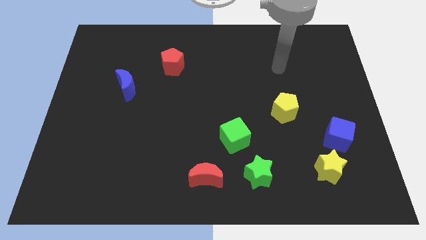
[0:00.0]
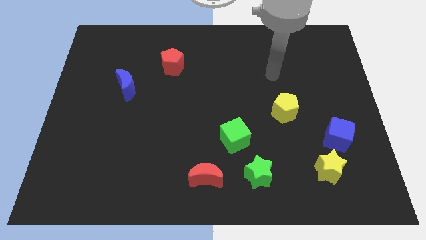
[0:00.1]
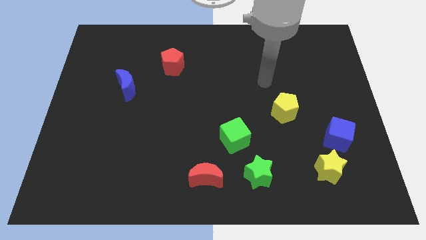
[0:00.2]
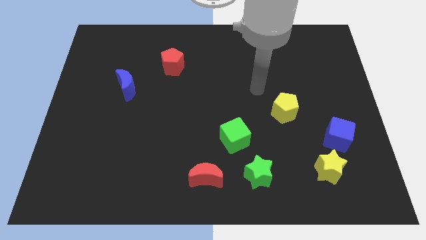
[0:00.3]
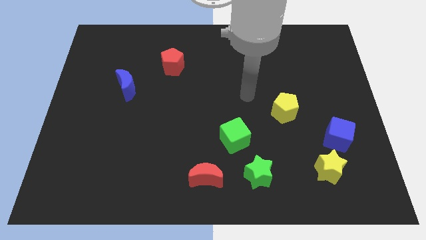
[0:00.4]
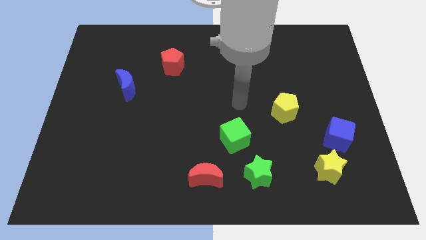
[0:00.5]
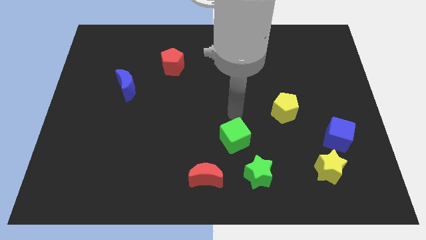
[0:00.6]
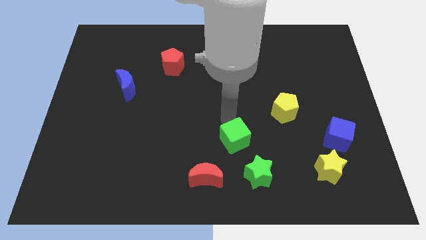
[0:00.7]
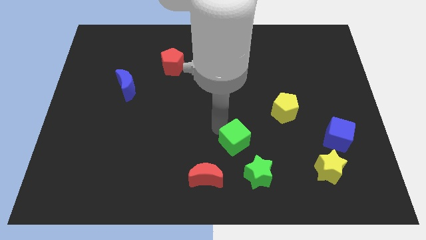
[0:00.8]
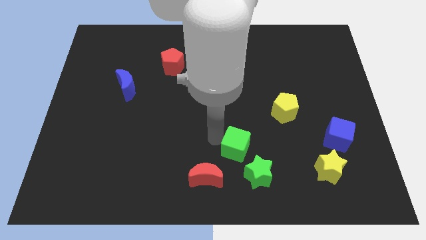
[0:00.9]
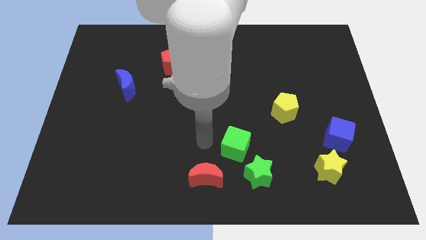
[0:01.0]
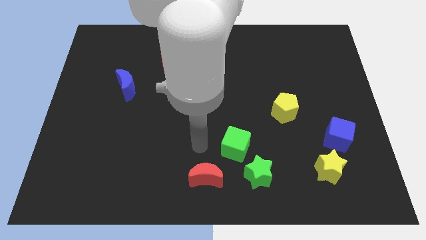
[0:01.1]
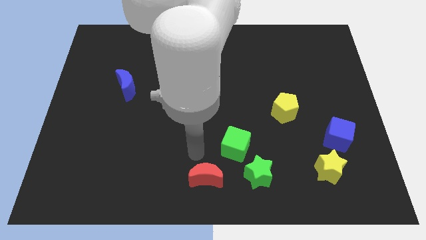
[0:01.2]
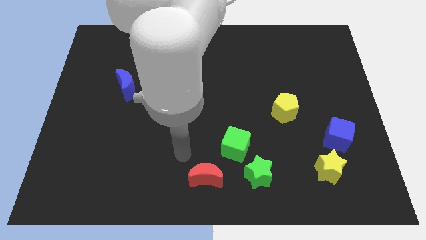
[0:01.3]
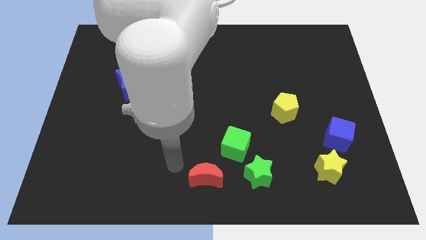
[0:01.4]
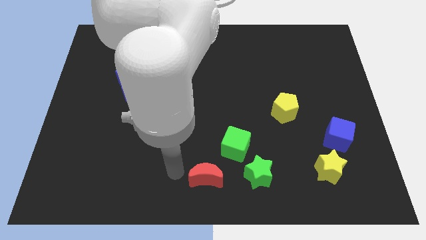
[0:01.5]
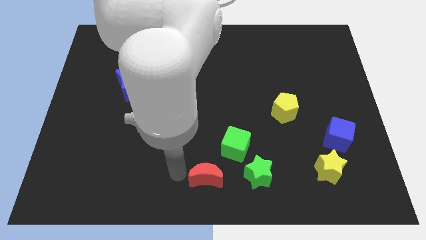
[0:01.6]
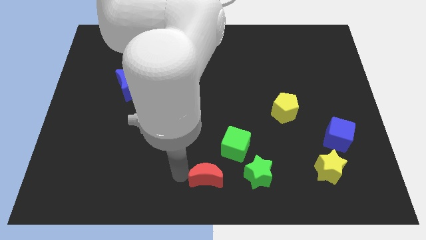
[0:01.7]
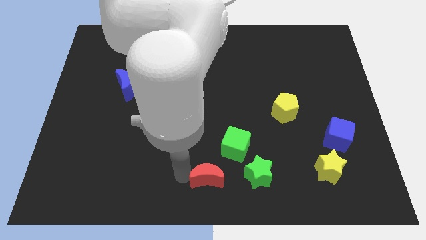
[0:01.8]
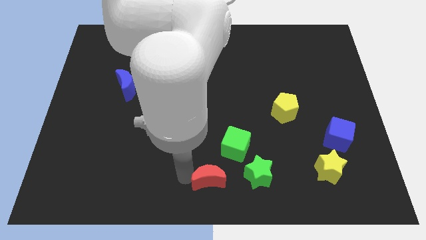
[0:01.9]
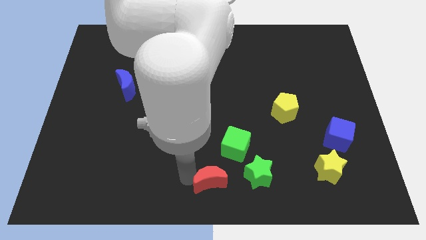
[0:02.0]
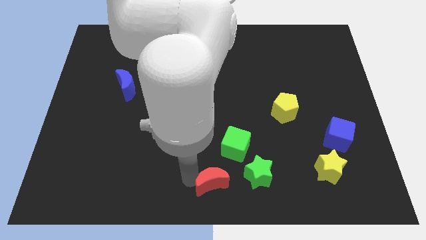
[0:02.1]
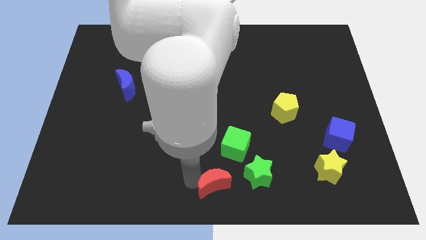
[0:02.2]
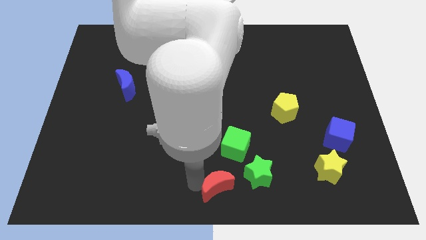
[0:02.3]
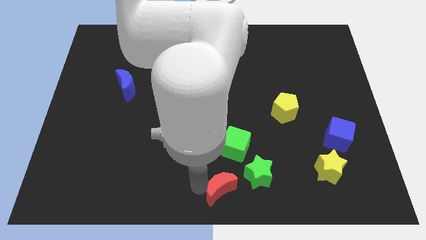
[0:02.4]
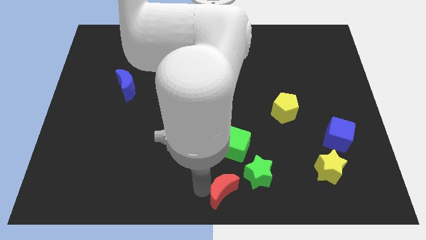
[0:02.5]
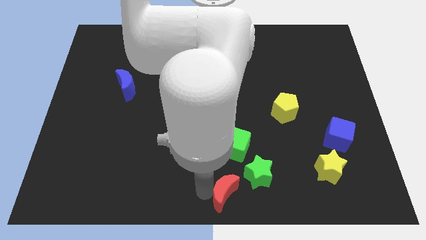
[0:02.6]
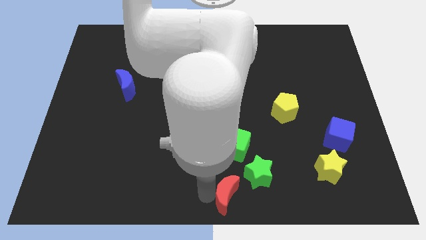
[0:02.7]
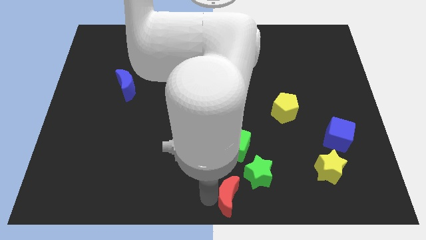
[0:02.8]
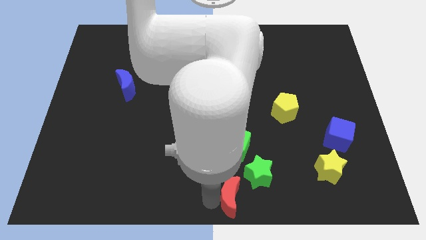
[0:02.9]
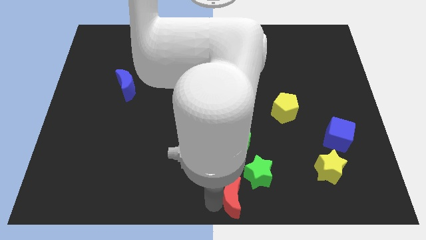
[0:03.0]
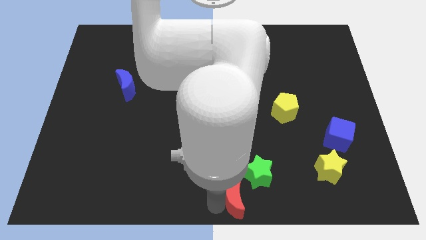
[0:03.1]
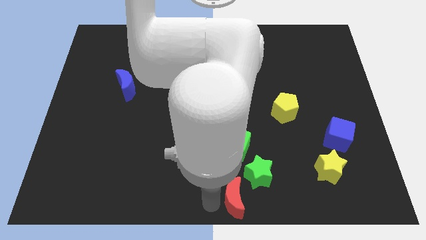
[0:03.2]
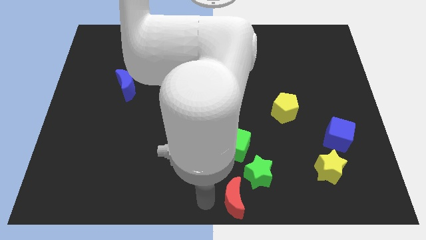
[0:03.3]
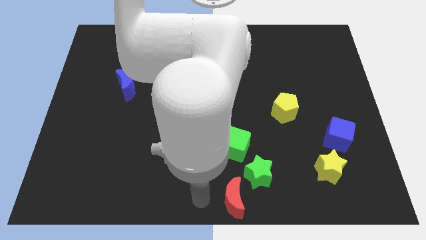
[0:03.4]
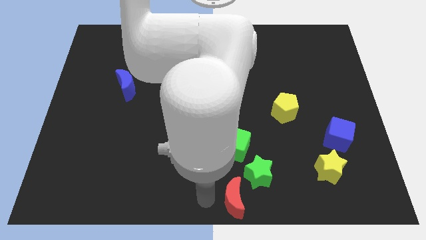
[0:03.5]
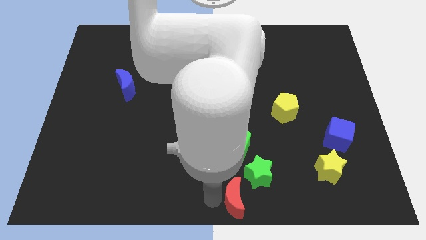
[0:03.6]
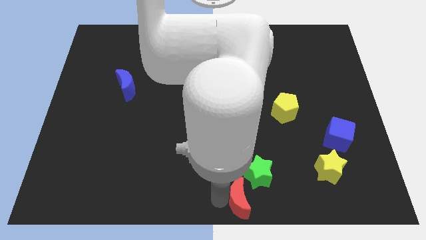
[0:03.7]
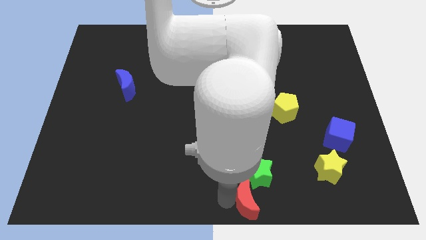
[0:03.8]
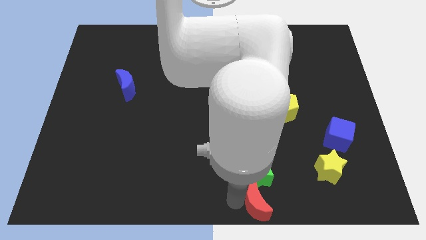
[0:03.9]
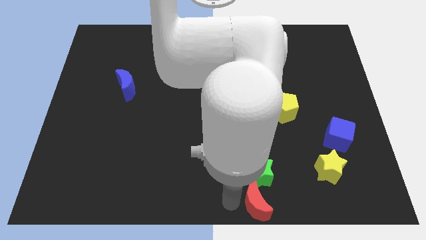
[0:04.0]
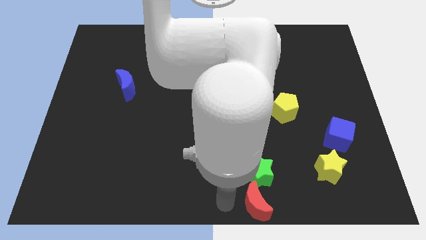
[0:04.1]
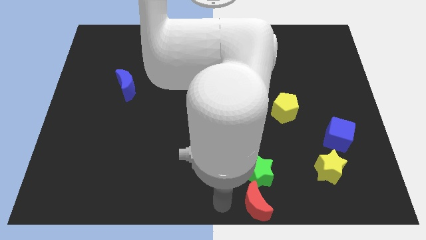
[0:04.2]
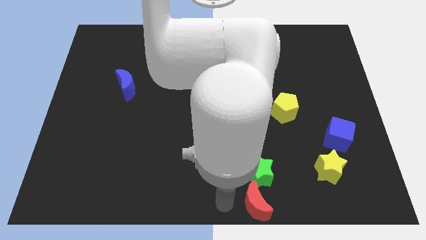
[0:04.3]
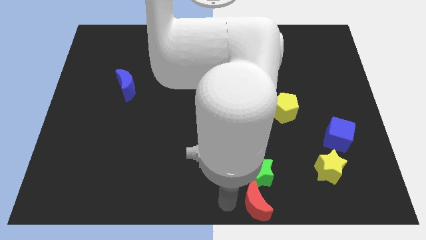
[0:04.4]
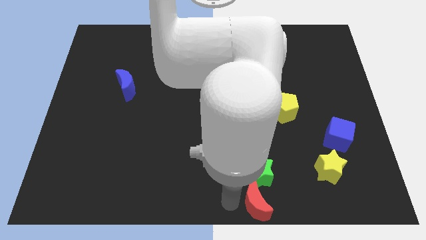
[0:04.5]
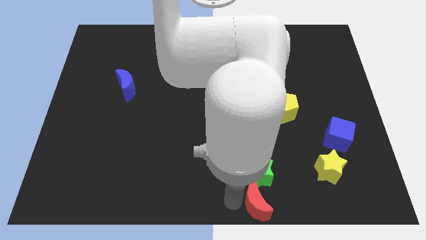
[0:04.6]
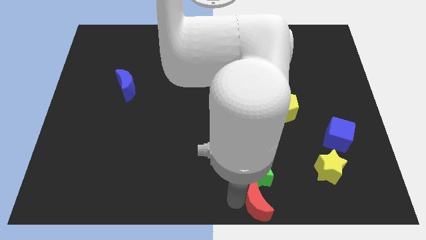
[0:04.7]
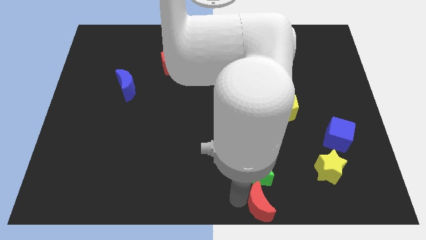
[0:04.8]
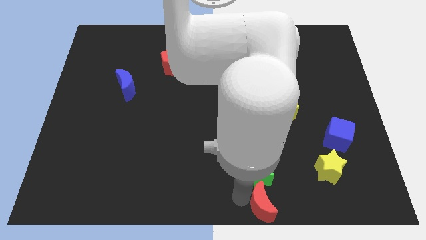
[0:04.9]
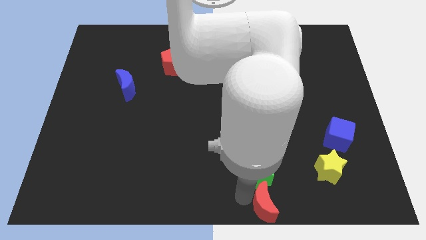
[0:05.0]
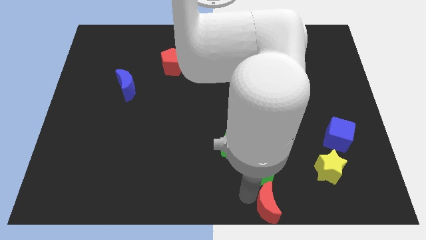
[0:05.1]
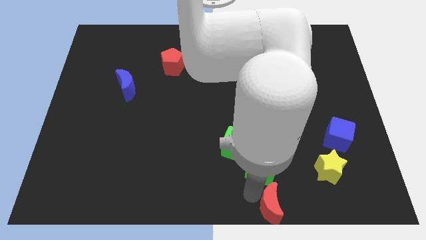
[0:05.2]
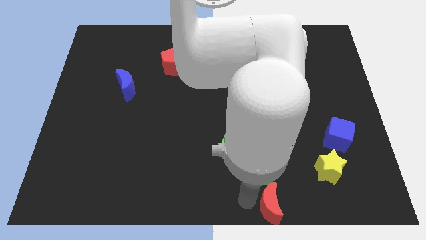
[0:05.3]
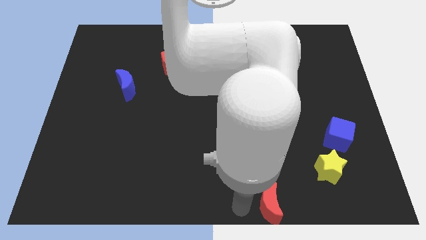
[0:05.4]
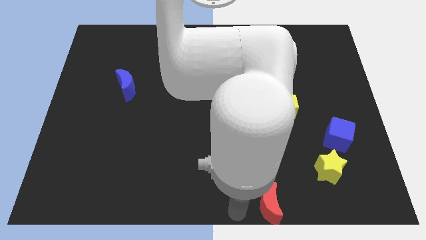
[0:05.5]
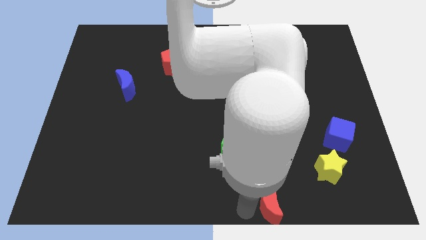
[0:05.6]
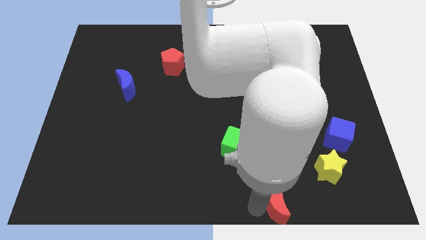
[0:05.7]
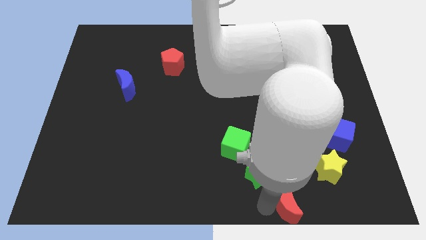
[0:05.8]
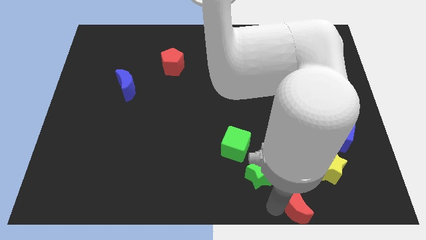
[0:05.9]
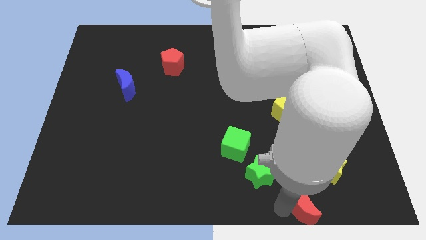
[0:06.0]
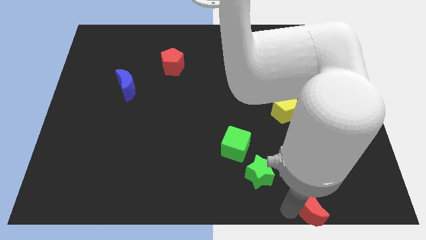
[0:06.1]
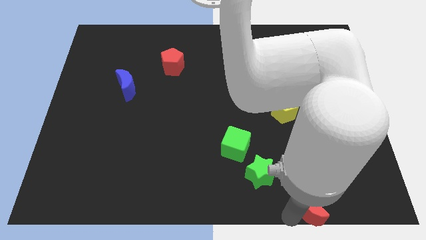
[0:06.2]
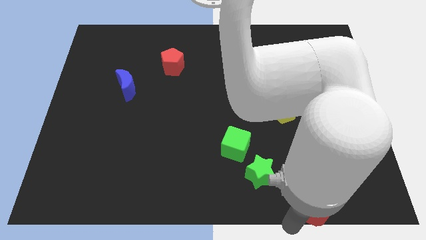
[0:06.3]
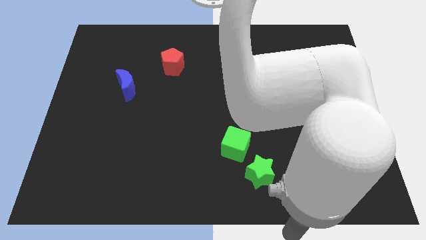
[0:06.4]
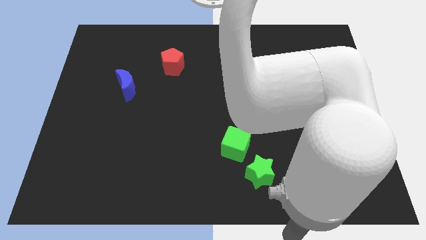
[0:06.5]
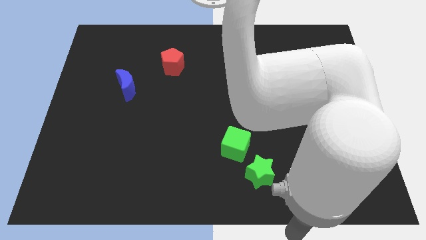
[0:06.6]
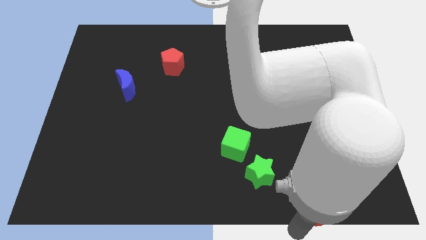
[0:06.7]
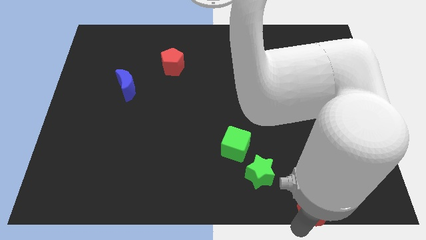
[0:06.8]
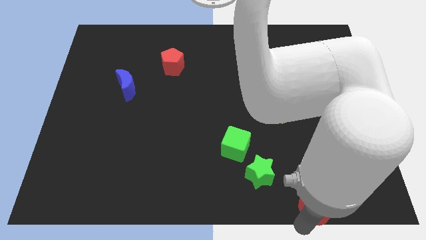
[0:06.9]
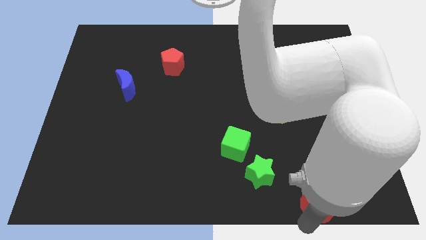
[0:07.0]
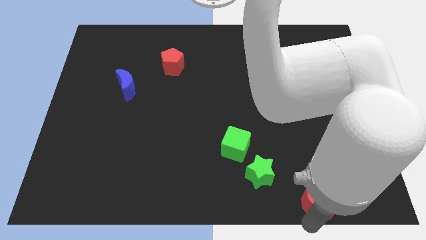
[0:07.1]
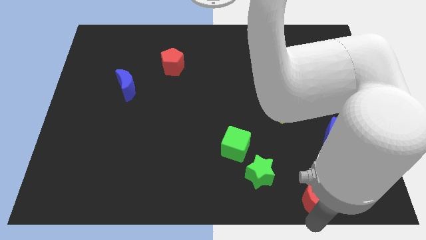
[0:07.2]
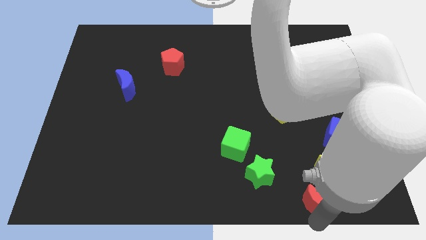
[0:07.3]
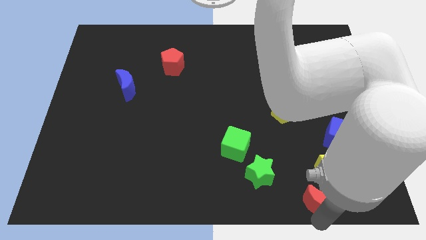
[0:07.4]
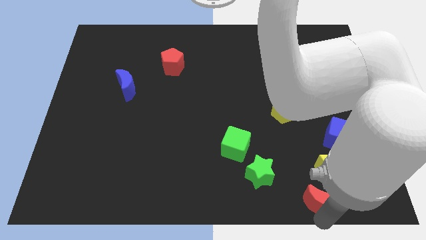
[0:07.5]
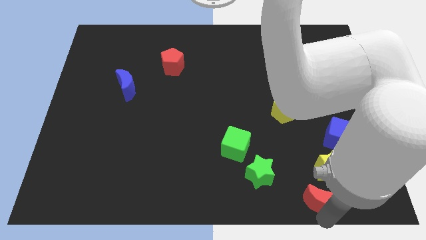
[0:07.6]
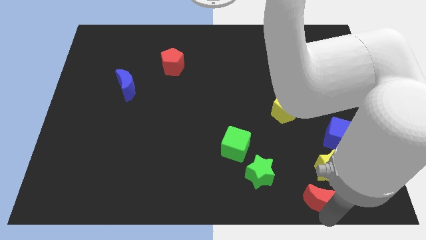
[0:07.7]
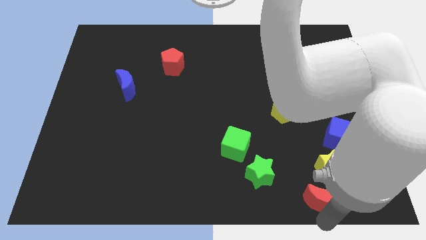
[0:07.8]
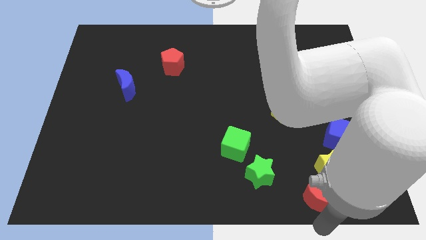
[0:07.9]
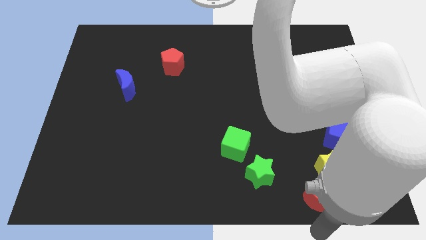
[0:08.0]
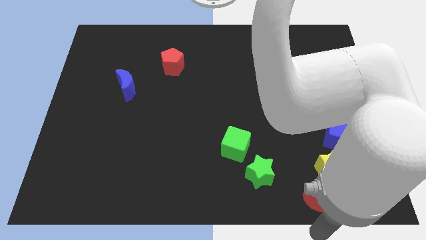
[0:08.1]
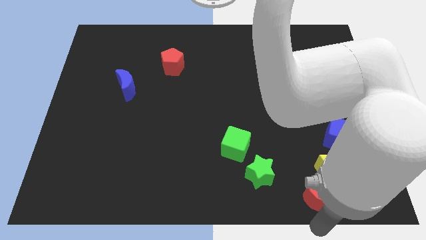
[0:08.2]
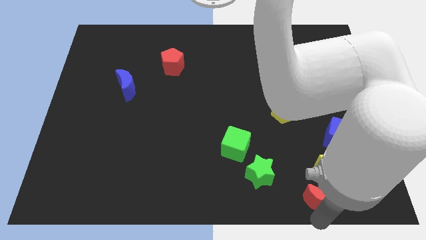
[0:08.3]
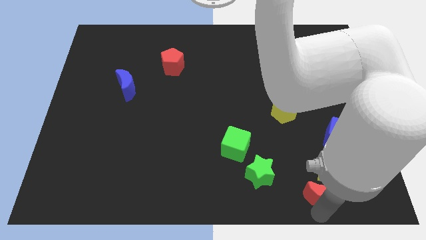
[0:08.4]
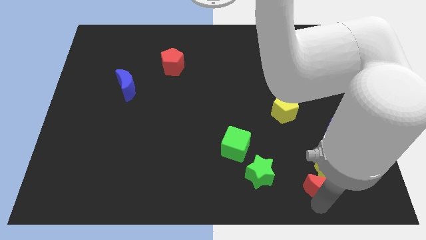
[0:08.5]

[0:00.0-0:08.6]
move the red moon to the yellow star
